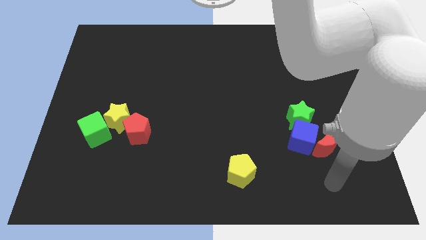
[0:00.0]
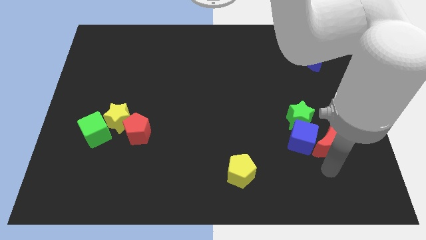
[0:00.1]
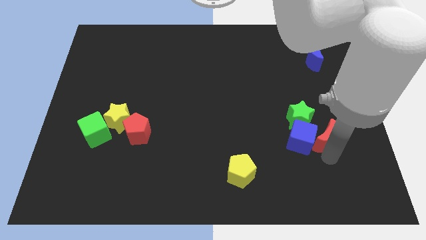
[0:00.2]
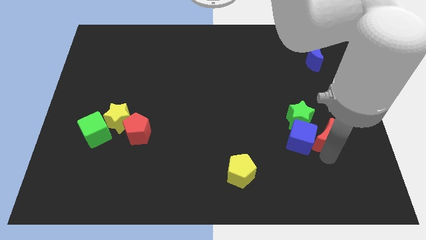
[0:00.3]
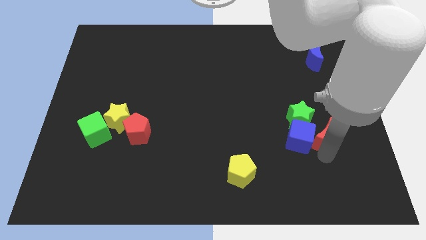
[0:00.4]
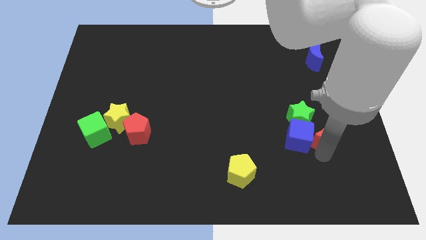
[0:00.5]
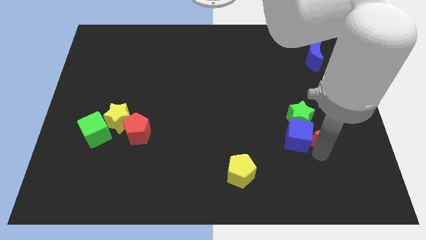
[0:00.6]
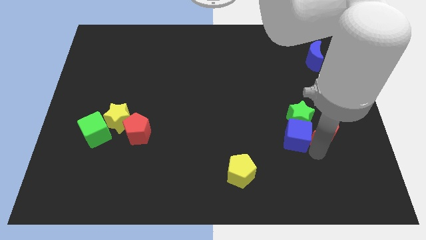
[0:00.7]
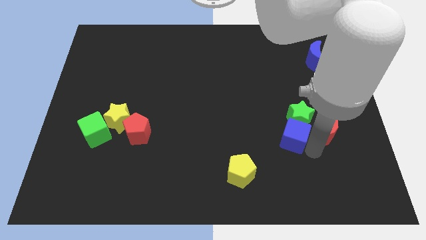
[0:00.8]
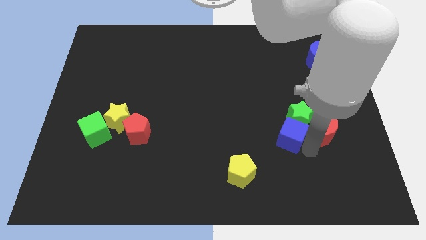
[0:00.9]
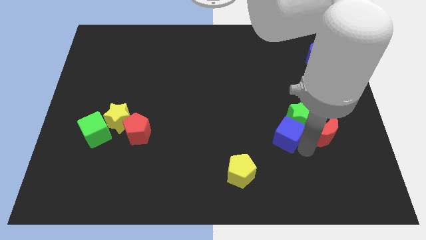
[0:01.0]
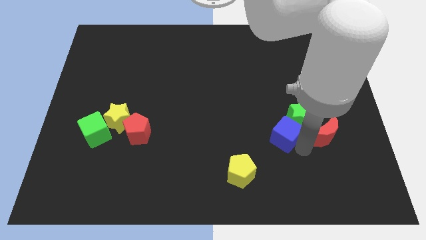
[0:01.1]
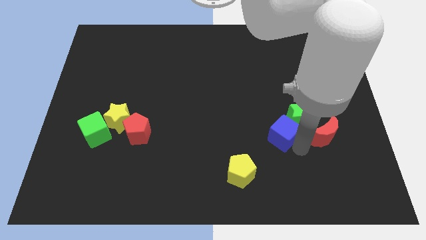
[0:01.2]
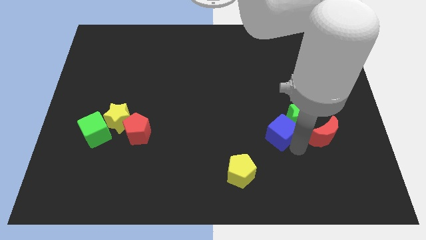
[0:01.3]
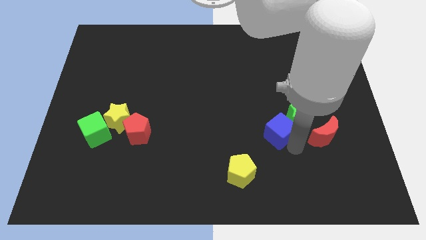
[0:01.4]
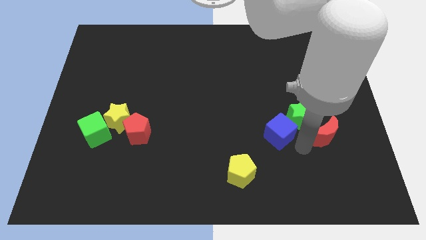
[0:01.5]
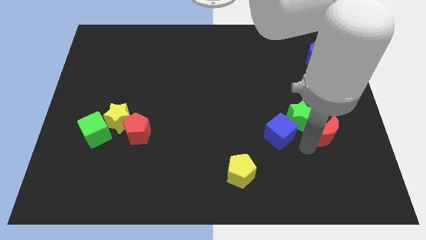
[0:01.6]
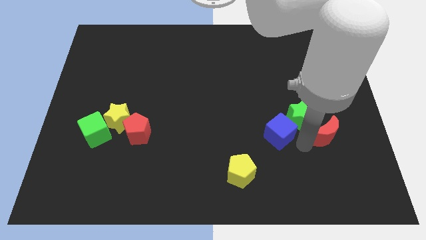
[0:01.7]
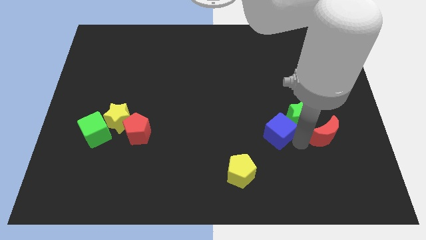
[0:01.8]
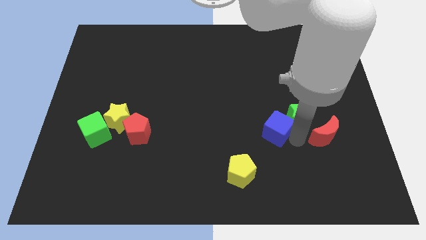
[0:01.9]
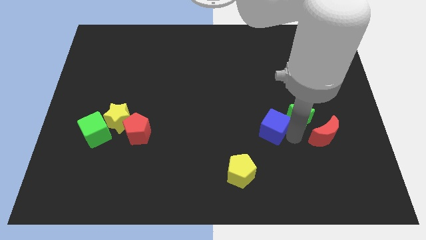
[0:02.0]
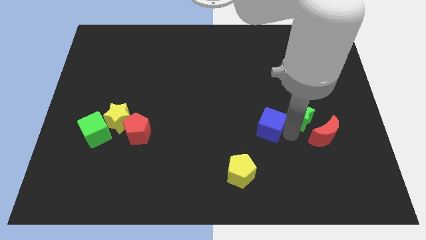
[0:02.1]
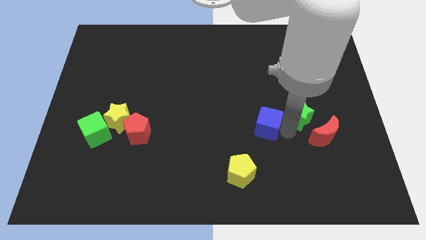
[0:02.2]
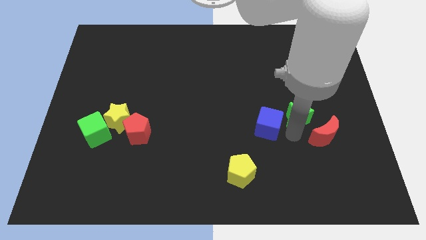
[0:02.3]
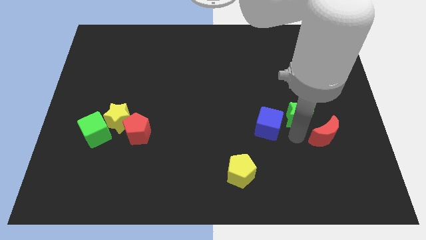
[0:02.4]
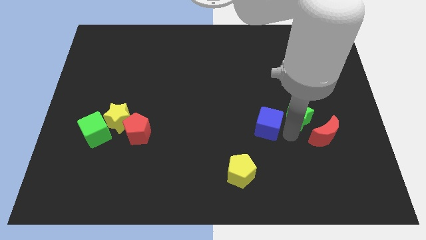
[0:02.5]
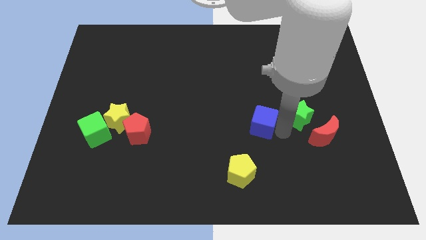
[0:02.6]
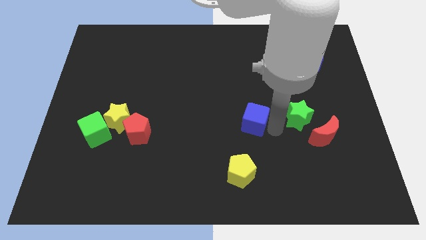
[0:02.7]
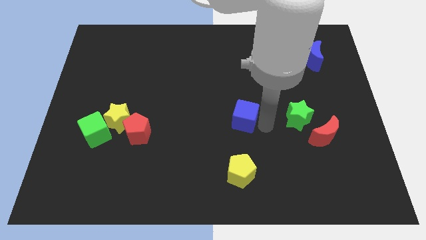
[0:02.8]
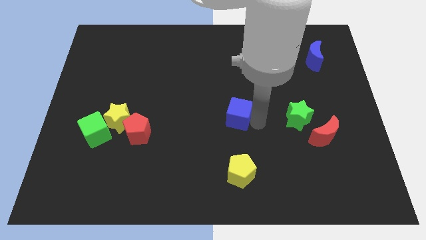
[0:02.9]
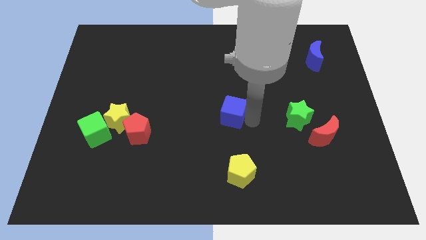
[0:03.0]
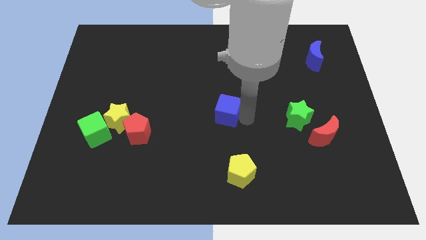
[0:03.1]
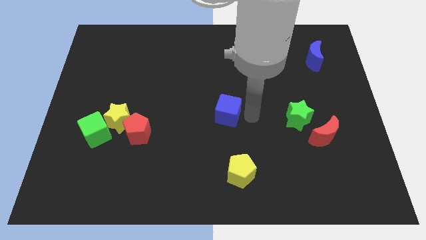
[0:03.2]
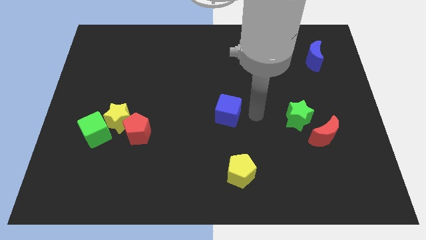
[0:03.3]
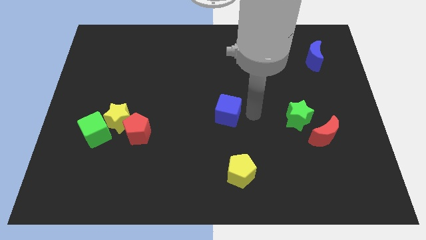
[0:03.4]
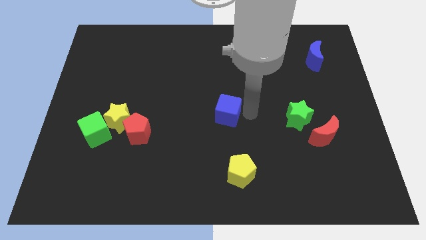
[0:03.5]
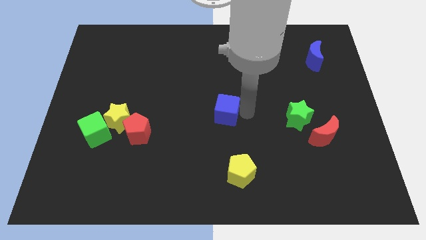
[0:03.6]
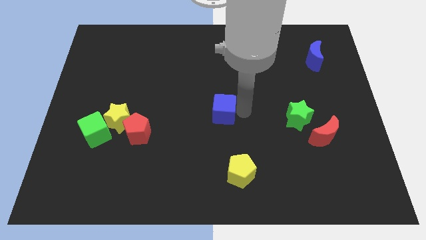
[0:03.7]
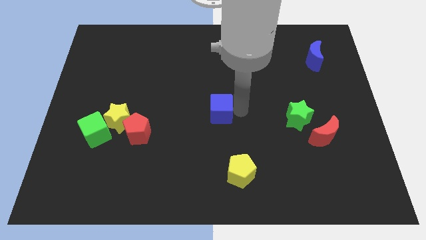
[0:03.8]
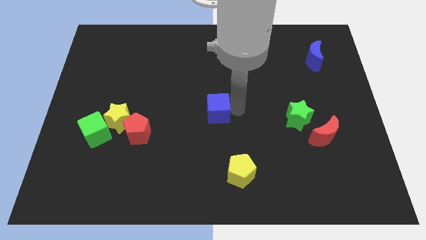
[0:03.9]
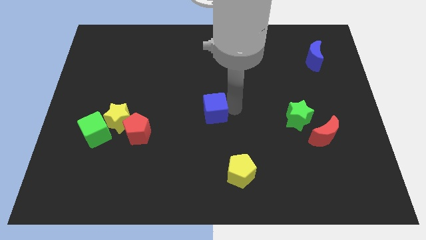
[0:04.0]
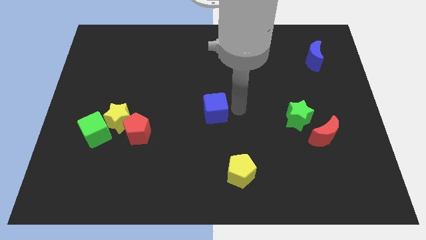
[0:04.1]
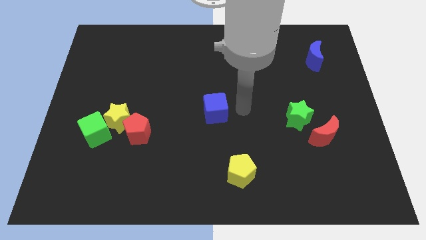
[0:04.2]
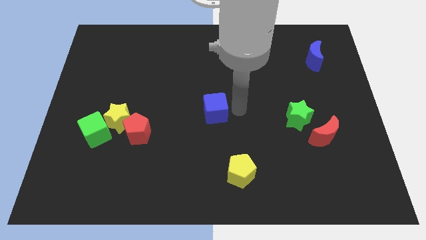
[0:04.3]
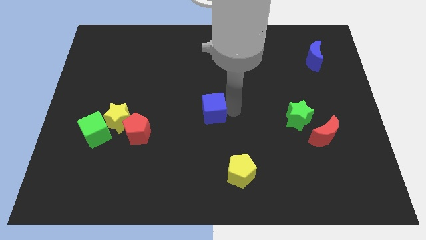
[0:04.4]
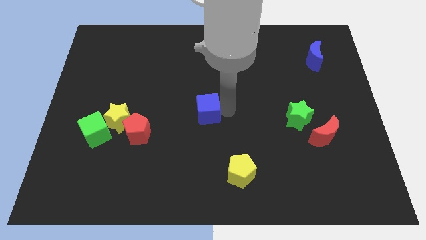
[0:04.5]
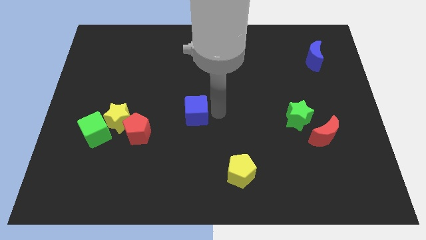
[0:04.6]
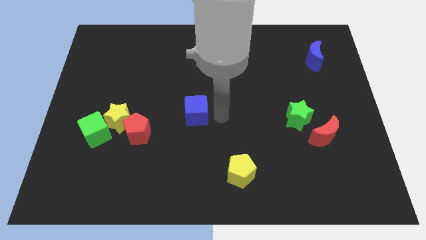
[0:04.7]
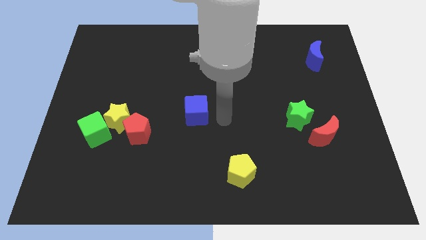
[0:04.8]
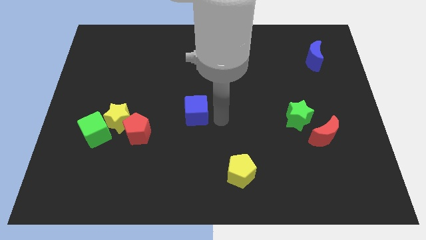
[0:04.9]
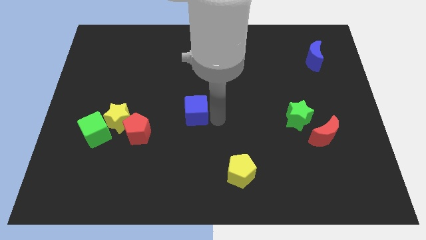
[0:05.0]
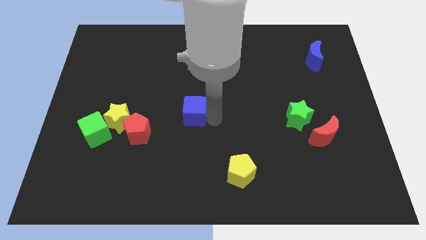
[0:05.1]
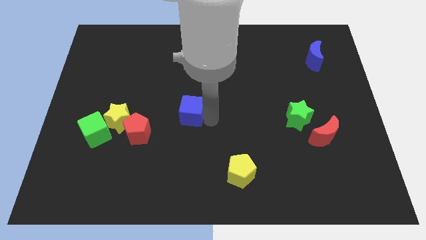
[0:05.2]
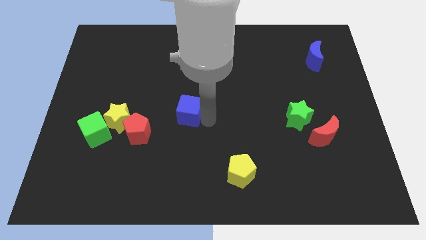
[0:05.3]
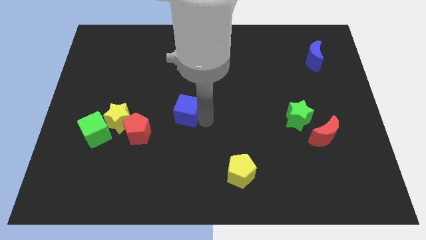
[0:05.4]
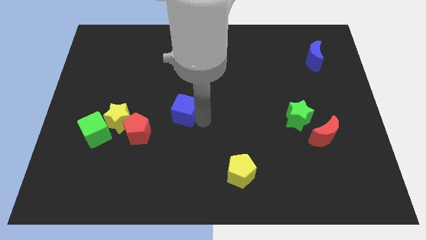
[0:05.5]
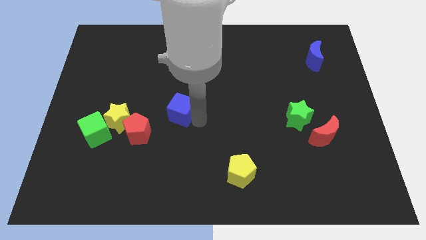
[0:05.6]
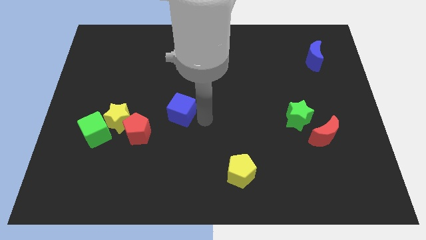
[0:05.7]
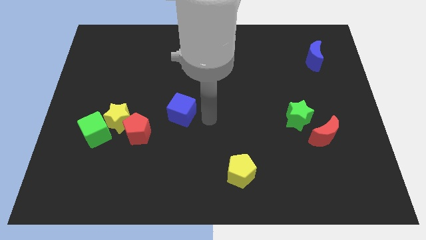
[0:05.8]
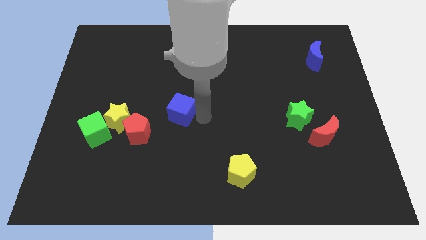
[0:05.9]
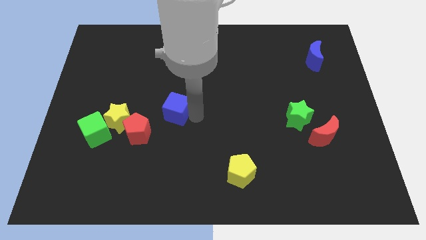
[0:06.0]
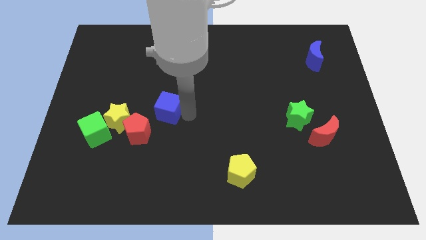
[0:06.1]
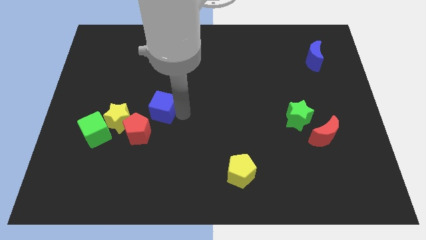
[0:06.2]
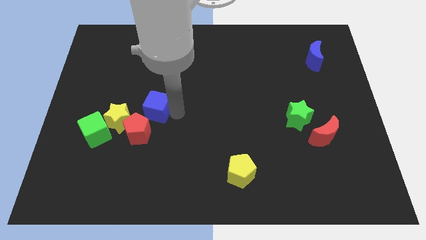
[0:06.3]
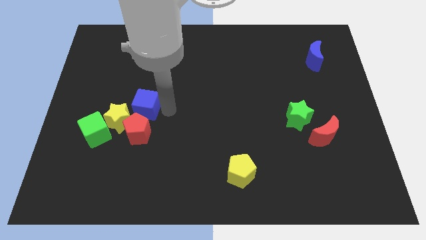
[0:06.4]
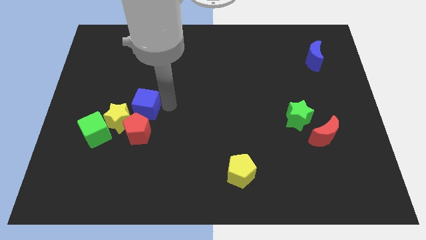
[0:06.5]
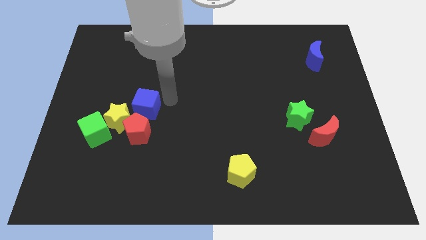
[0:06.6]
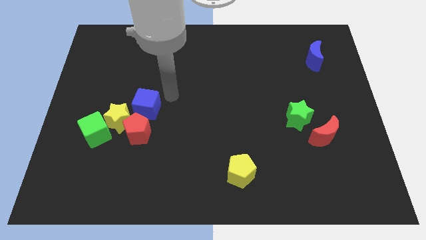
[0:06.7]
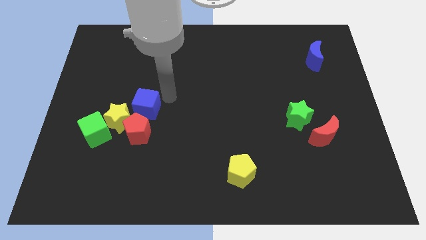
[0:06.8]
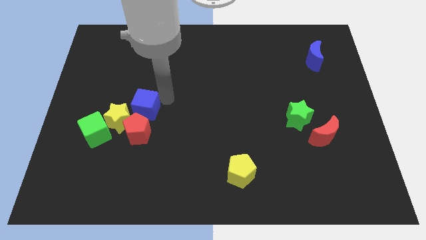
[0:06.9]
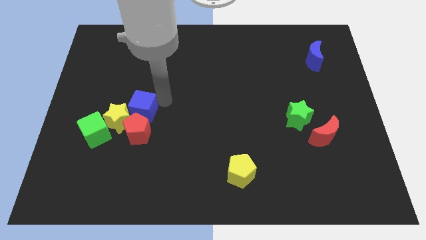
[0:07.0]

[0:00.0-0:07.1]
put the blue cube close to the yellow star
